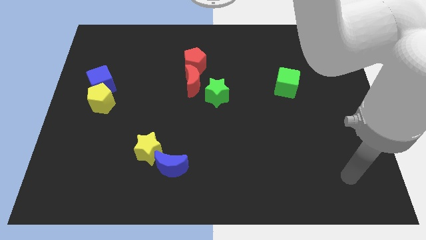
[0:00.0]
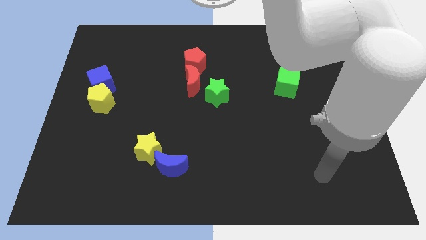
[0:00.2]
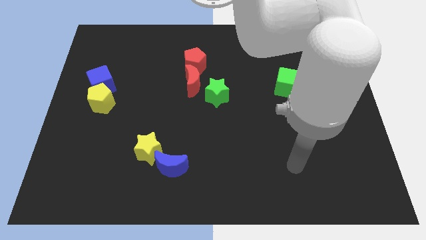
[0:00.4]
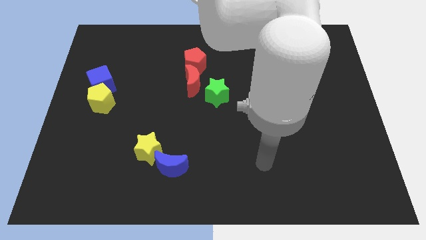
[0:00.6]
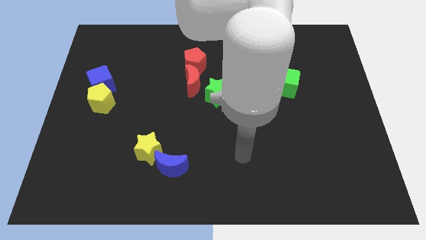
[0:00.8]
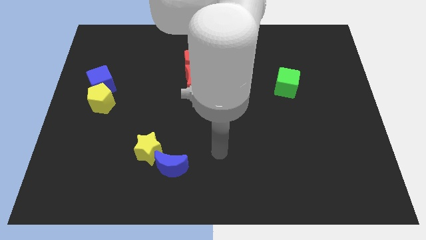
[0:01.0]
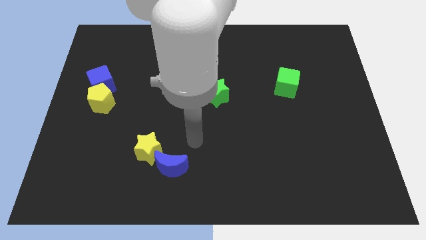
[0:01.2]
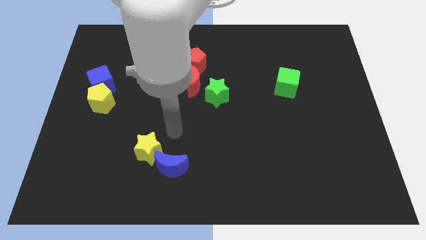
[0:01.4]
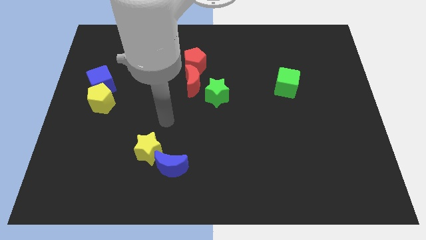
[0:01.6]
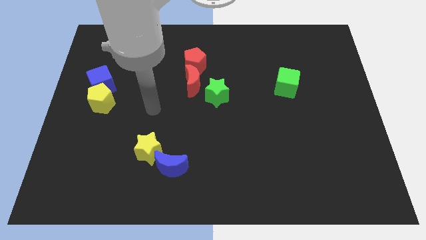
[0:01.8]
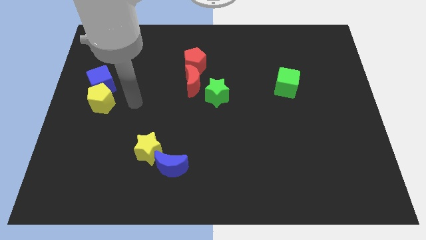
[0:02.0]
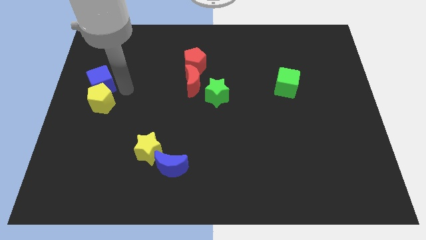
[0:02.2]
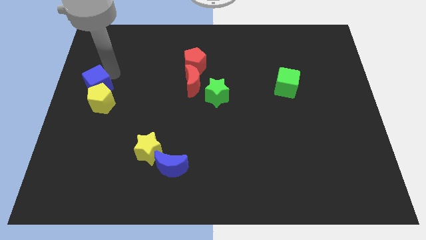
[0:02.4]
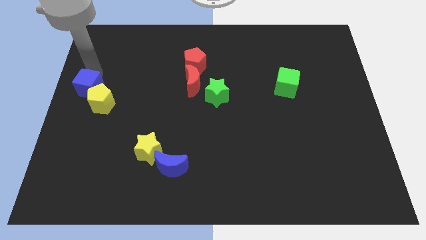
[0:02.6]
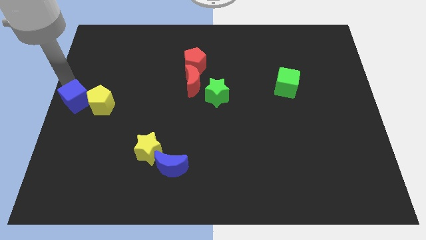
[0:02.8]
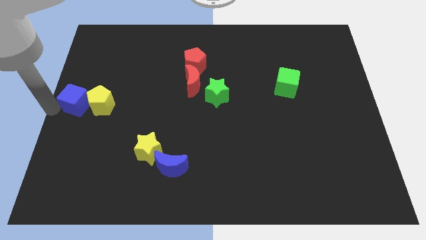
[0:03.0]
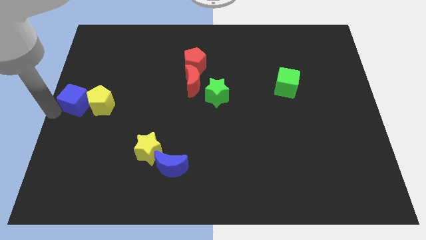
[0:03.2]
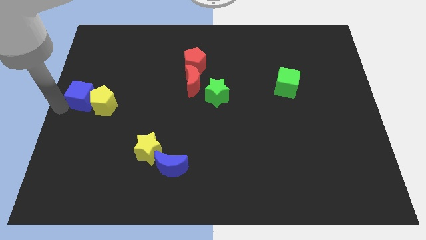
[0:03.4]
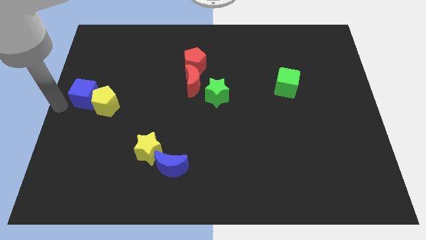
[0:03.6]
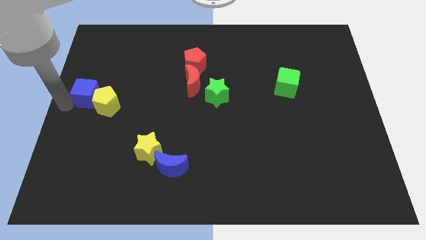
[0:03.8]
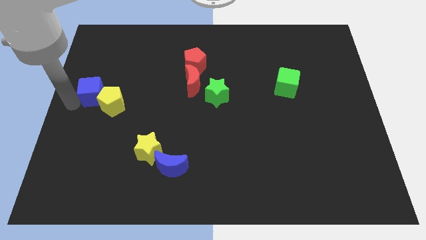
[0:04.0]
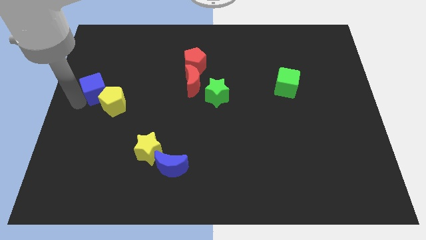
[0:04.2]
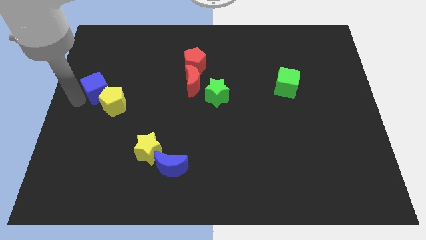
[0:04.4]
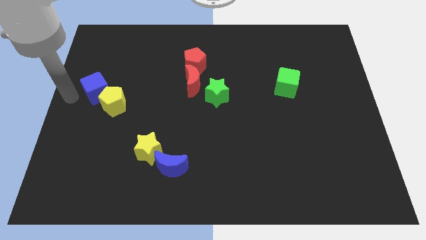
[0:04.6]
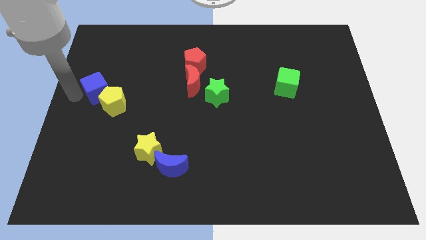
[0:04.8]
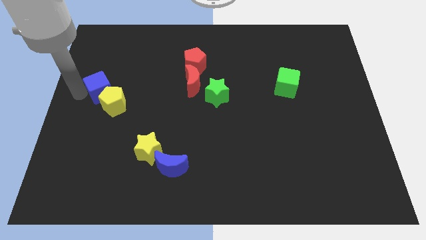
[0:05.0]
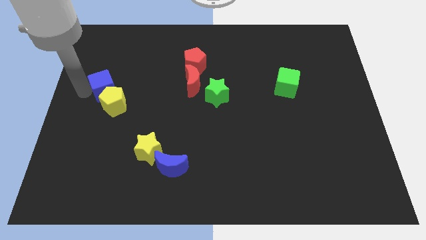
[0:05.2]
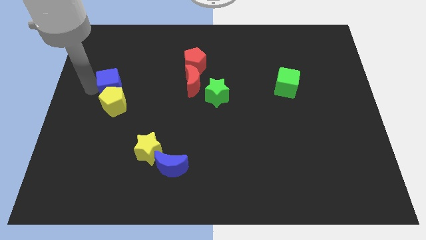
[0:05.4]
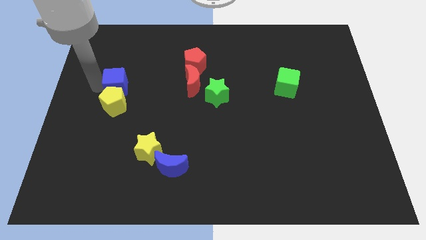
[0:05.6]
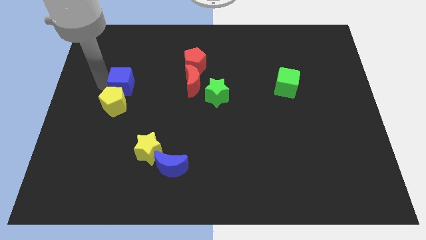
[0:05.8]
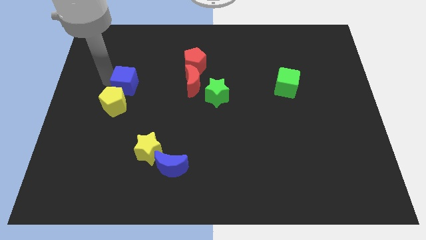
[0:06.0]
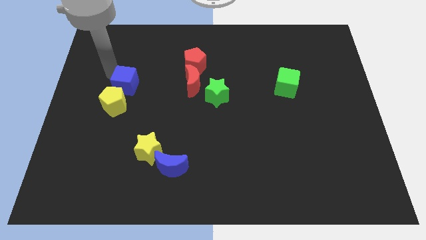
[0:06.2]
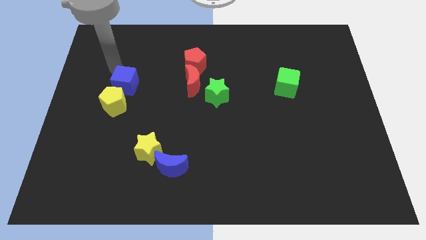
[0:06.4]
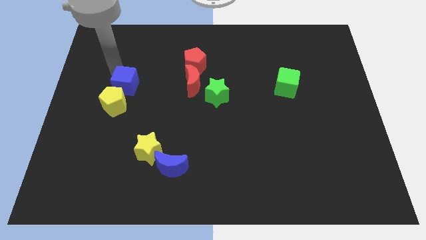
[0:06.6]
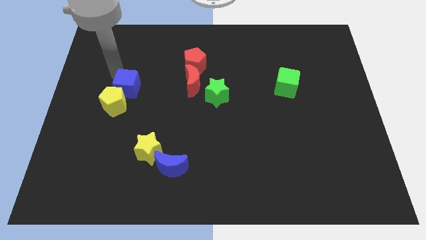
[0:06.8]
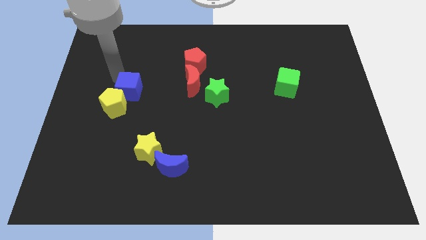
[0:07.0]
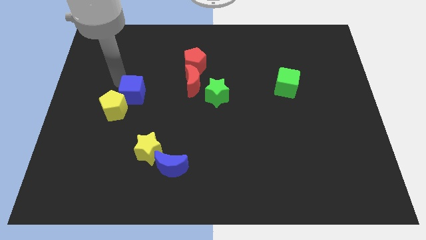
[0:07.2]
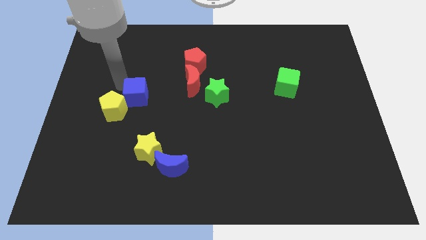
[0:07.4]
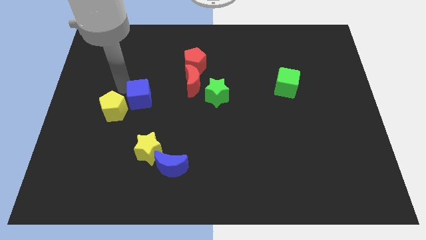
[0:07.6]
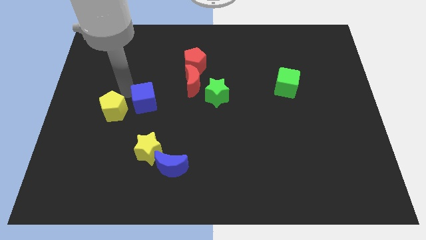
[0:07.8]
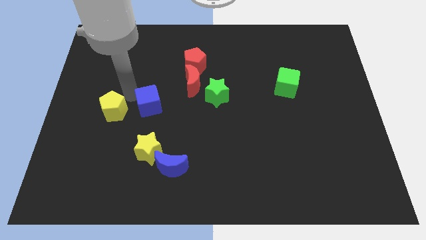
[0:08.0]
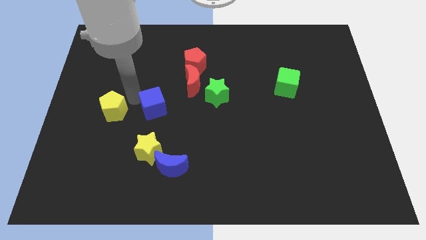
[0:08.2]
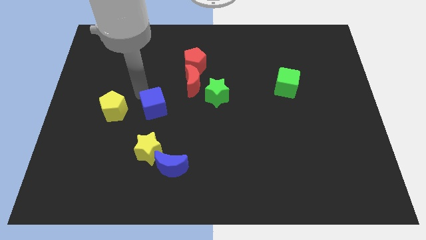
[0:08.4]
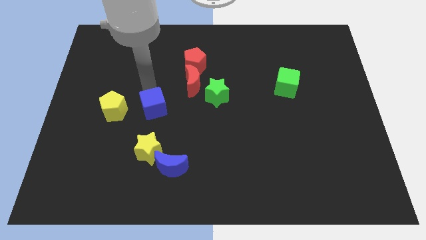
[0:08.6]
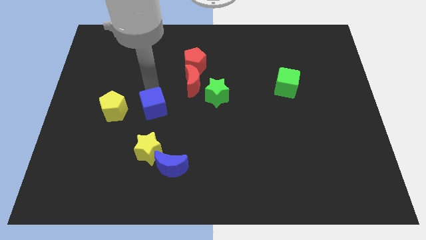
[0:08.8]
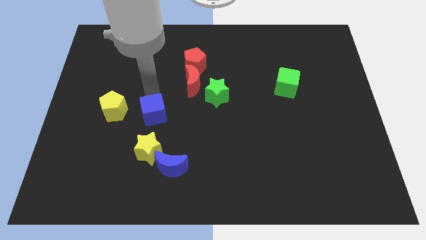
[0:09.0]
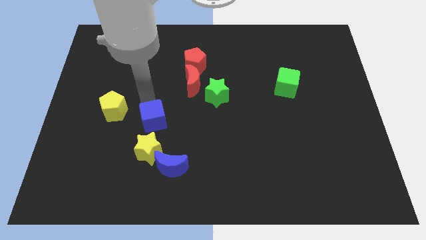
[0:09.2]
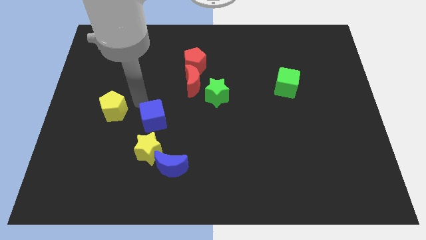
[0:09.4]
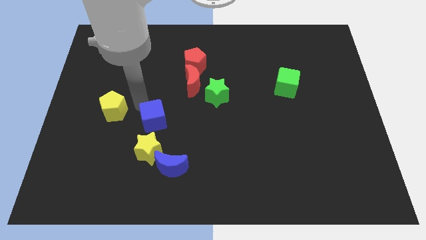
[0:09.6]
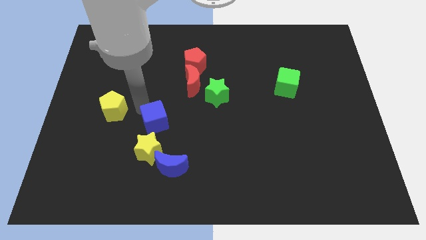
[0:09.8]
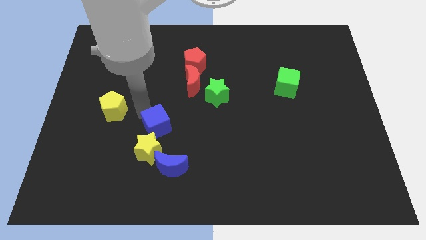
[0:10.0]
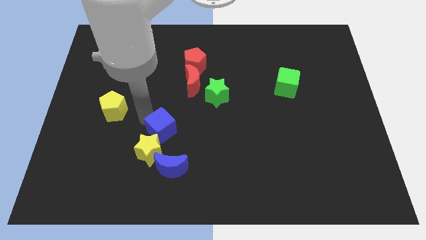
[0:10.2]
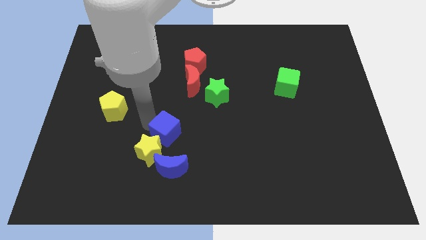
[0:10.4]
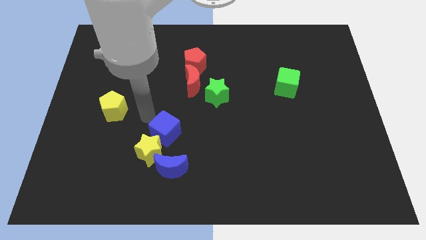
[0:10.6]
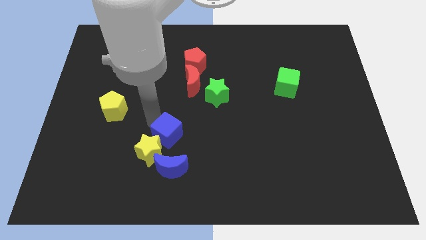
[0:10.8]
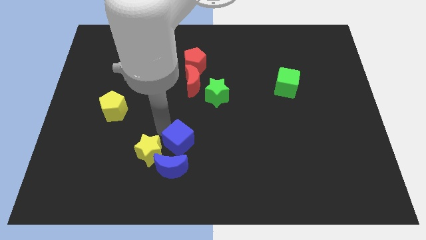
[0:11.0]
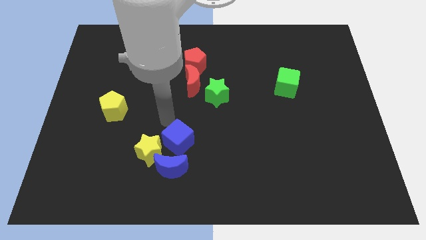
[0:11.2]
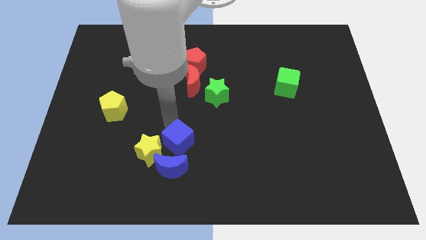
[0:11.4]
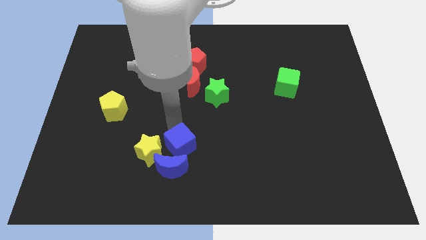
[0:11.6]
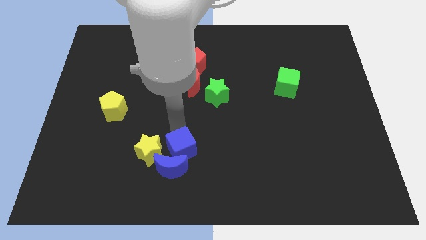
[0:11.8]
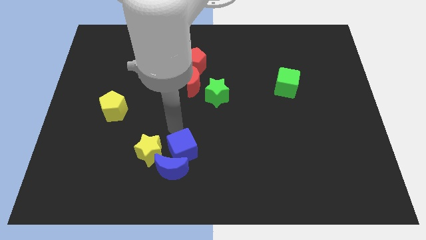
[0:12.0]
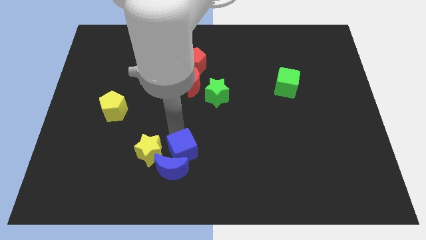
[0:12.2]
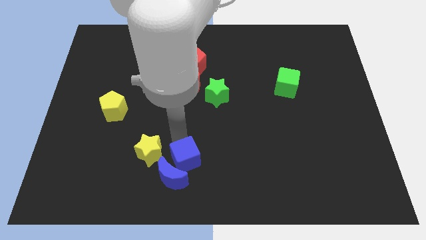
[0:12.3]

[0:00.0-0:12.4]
push the blue cube to the bottom side
